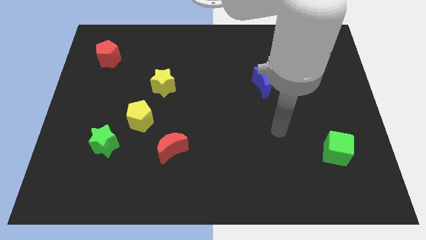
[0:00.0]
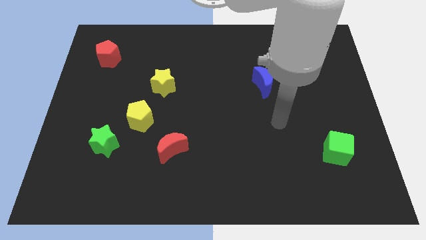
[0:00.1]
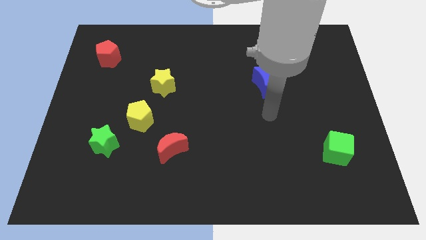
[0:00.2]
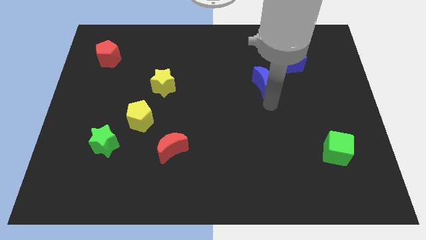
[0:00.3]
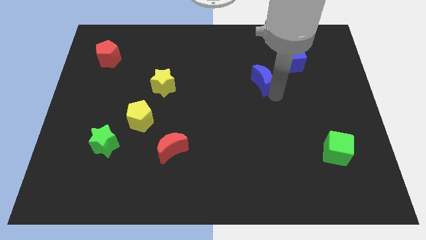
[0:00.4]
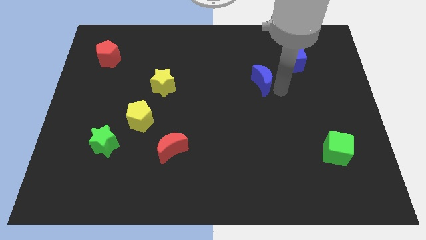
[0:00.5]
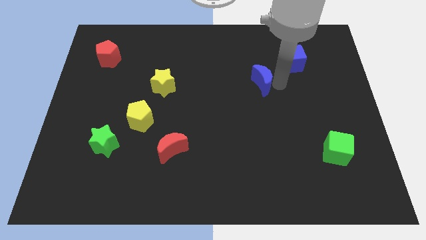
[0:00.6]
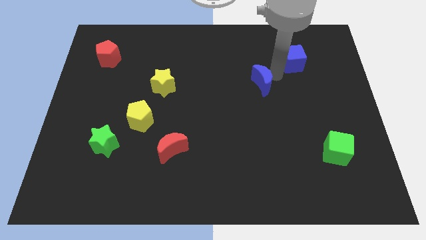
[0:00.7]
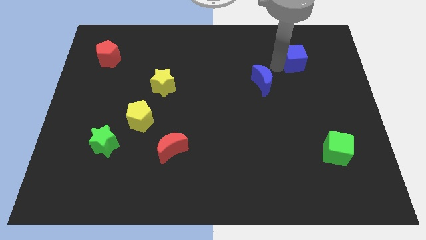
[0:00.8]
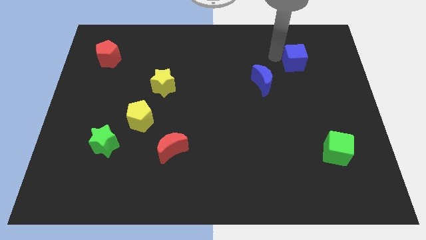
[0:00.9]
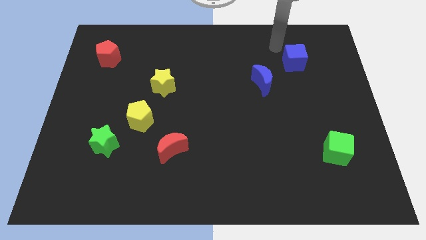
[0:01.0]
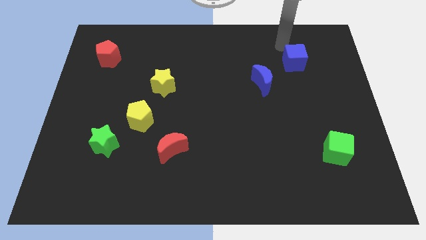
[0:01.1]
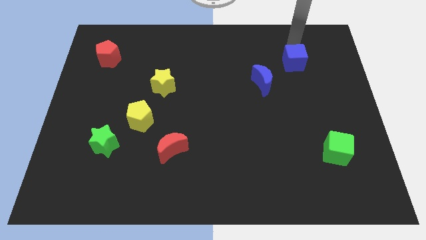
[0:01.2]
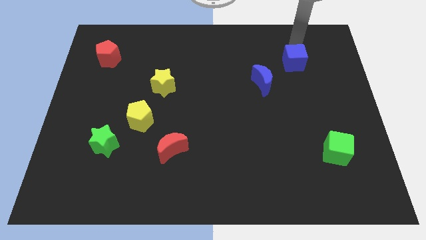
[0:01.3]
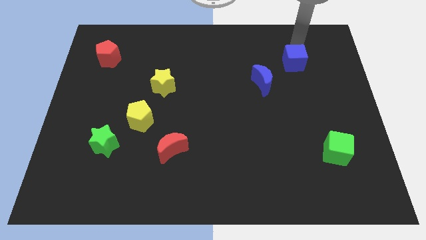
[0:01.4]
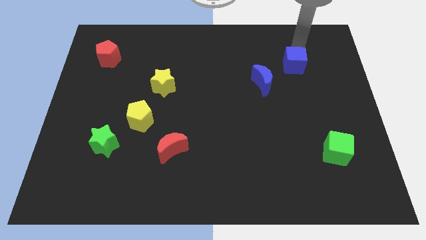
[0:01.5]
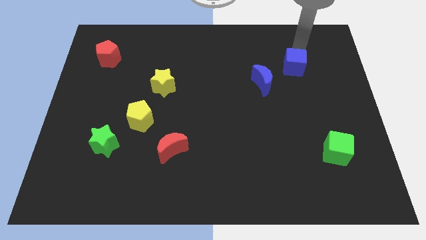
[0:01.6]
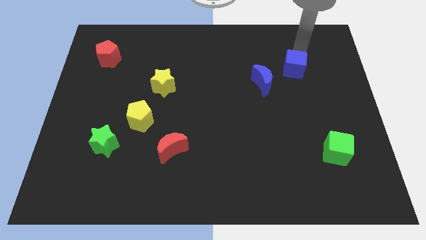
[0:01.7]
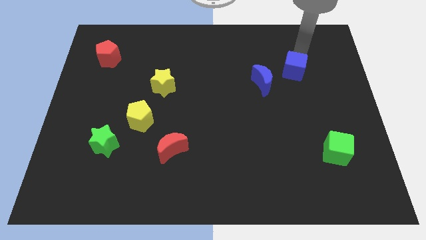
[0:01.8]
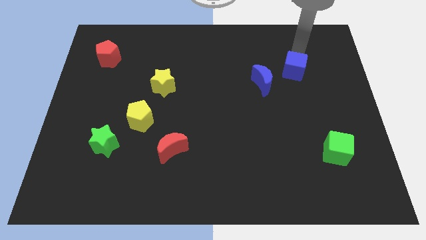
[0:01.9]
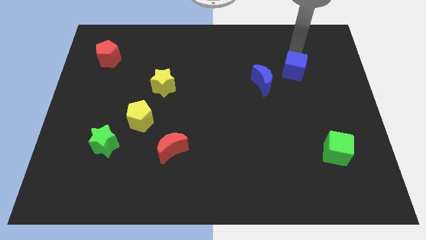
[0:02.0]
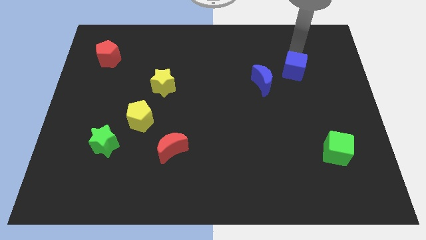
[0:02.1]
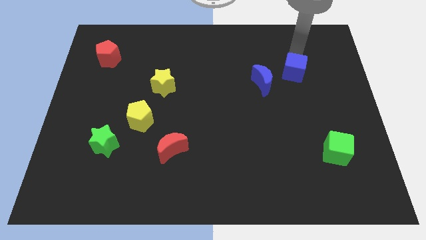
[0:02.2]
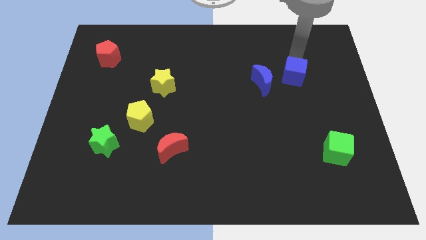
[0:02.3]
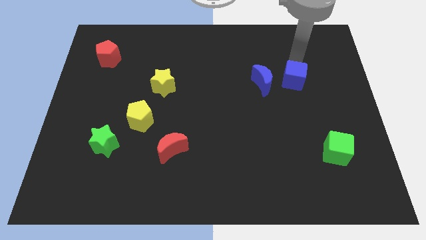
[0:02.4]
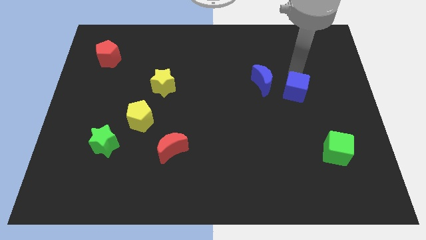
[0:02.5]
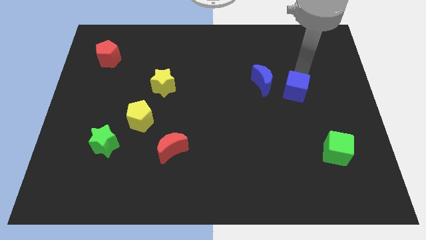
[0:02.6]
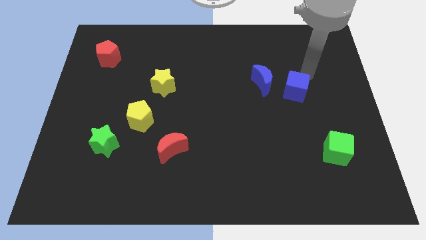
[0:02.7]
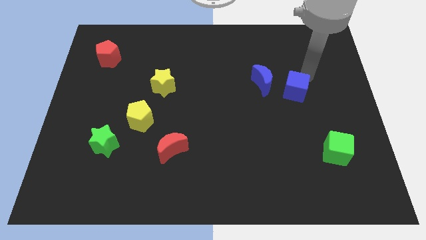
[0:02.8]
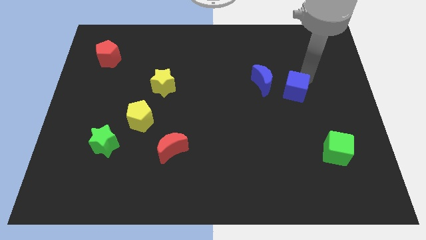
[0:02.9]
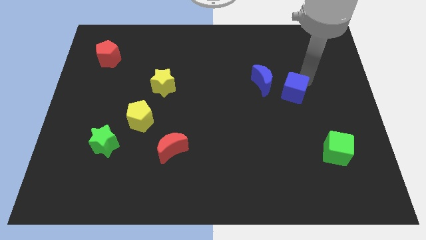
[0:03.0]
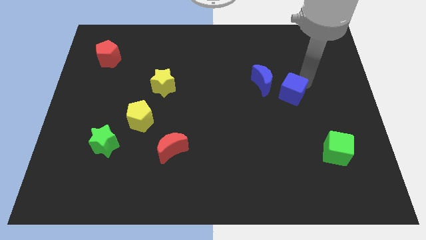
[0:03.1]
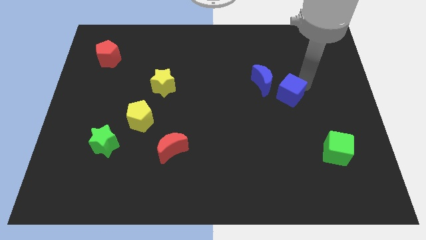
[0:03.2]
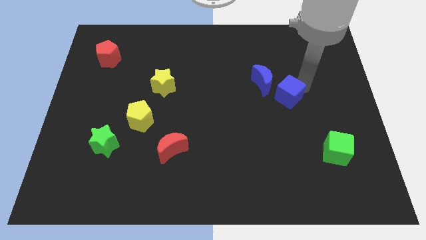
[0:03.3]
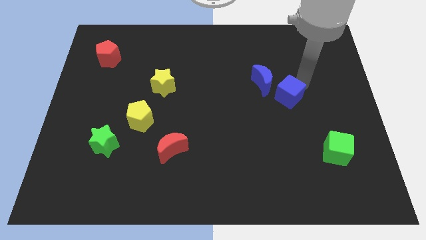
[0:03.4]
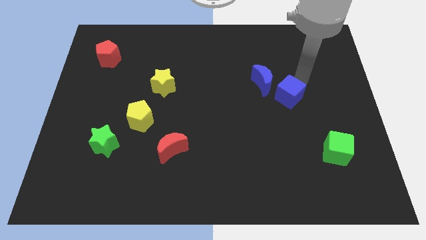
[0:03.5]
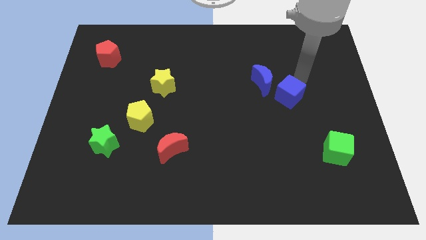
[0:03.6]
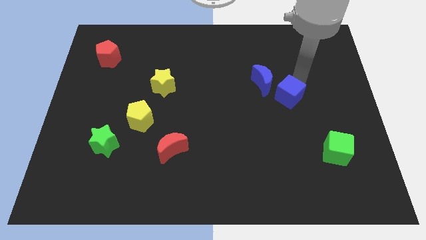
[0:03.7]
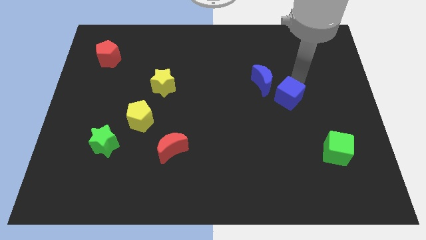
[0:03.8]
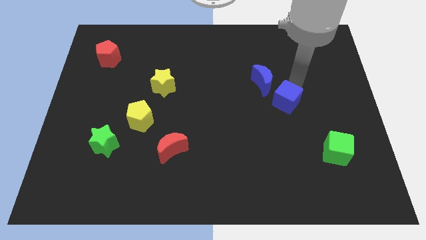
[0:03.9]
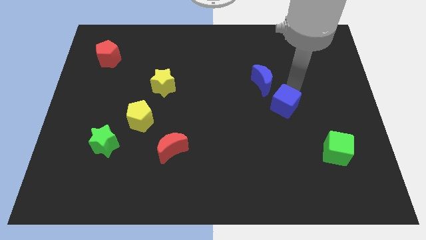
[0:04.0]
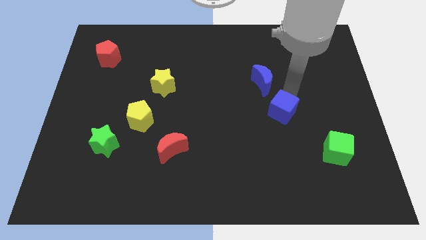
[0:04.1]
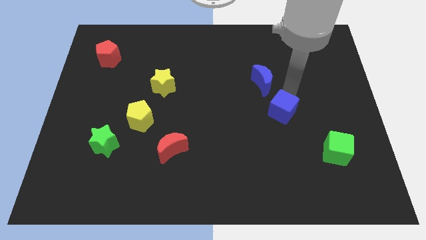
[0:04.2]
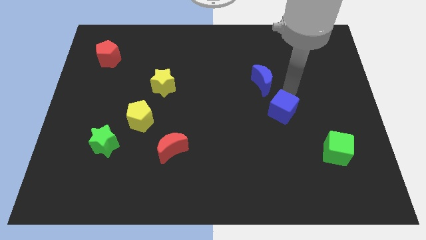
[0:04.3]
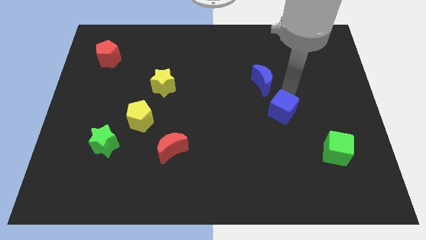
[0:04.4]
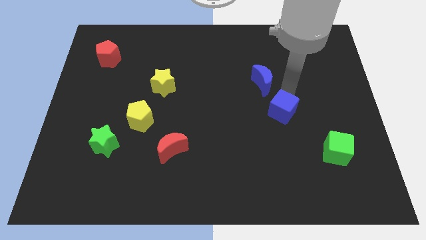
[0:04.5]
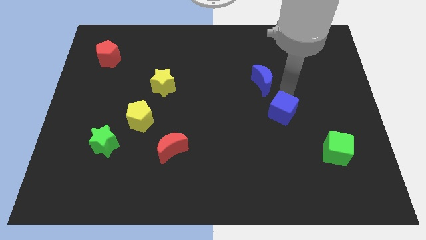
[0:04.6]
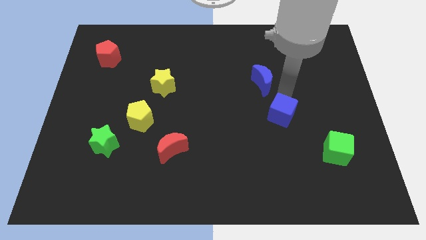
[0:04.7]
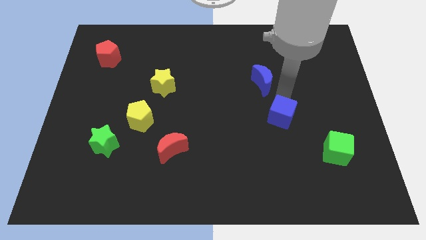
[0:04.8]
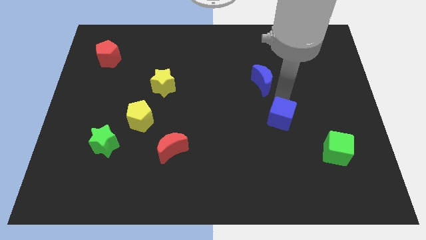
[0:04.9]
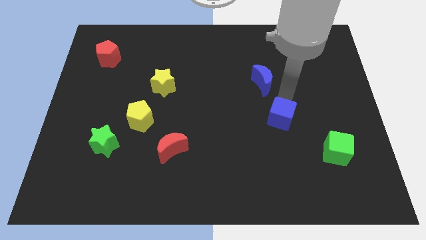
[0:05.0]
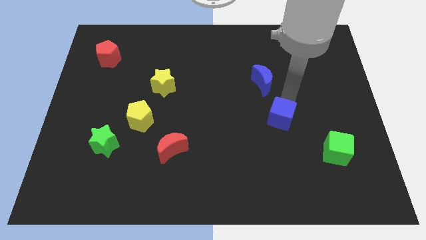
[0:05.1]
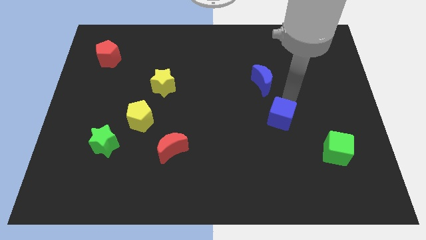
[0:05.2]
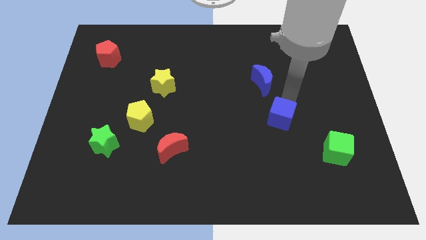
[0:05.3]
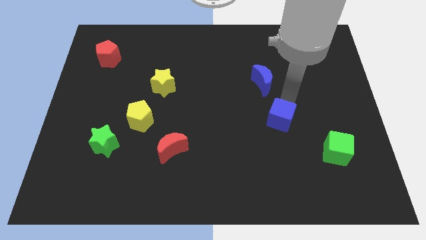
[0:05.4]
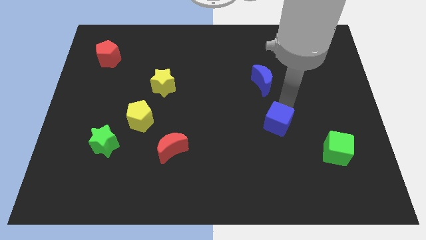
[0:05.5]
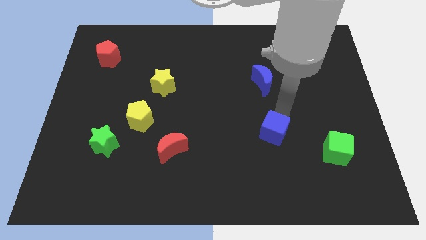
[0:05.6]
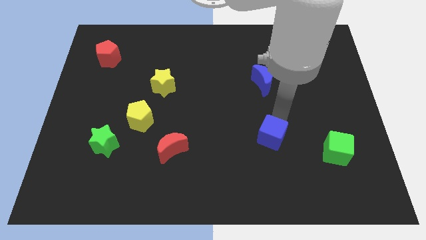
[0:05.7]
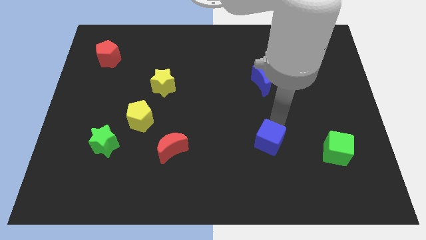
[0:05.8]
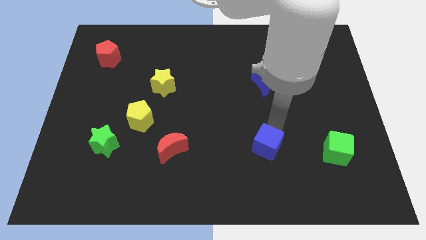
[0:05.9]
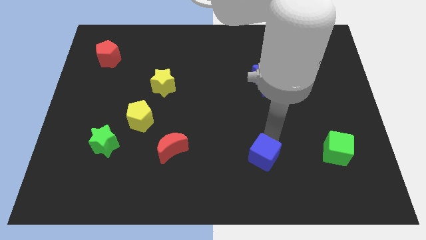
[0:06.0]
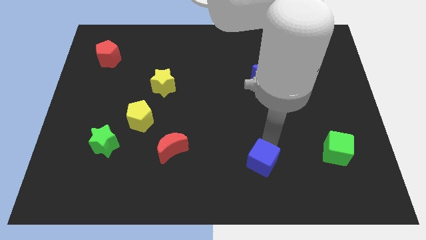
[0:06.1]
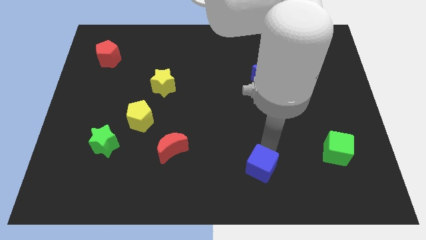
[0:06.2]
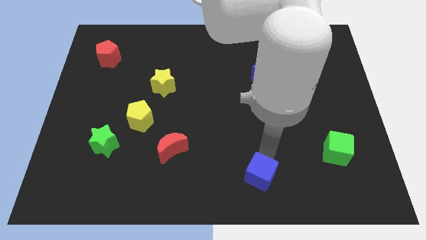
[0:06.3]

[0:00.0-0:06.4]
move the blue cube to the bottom

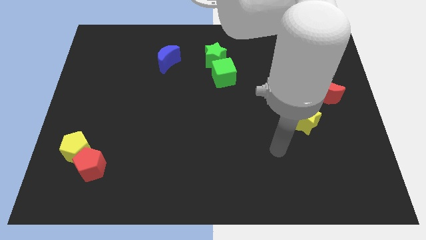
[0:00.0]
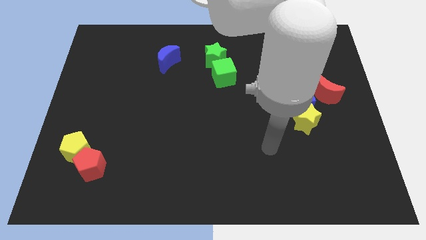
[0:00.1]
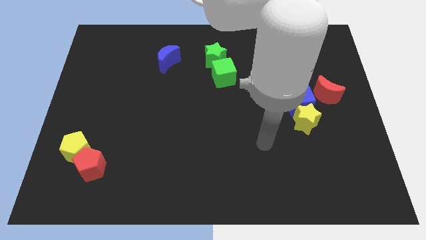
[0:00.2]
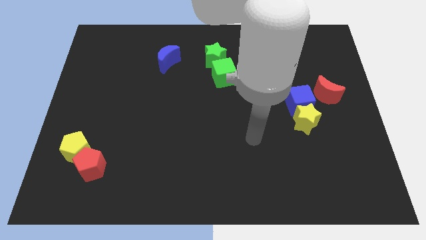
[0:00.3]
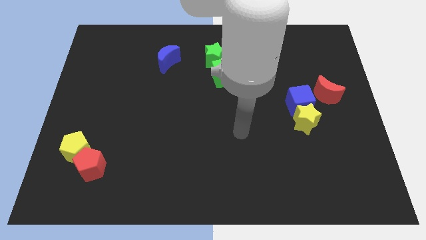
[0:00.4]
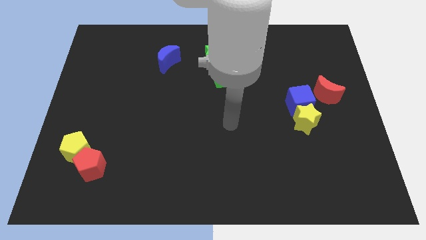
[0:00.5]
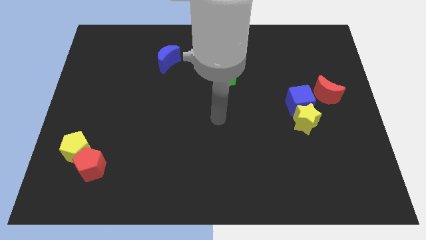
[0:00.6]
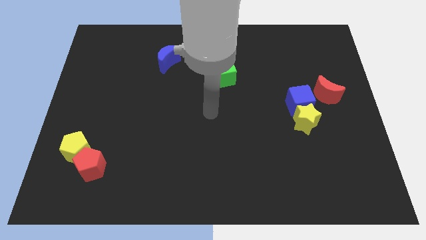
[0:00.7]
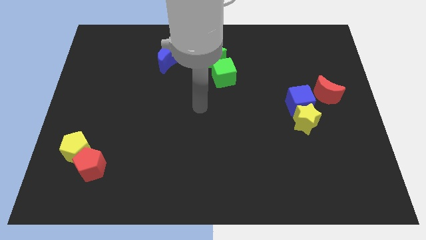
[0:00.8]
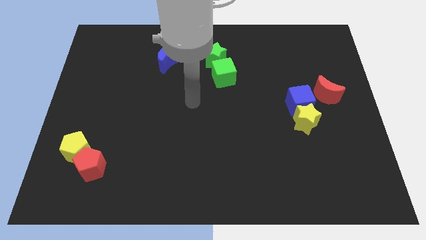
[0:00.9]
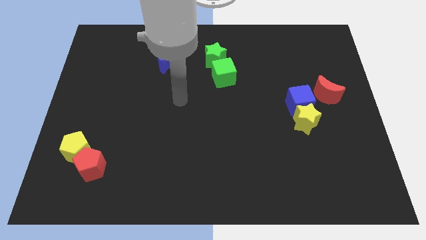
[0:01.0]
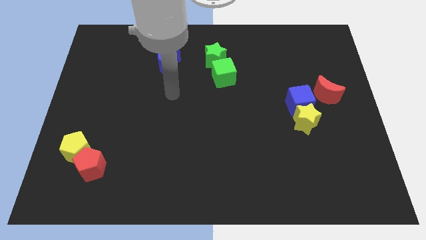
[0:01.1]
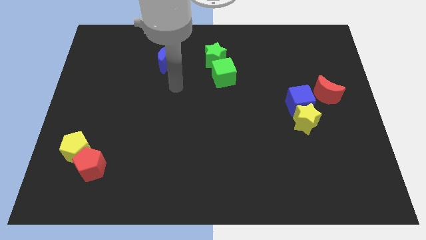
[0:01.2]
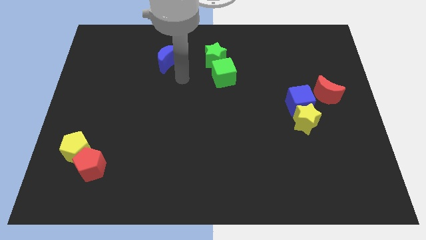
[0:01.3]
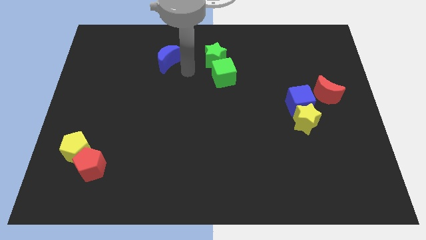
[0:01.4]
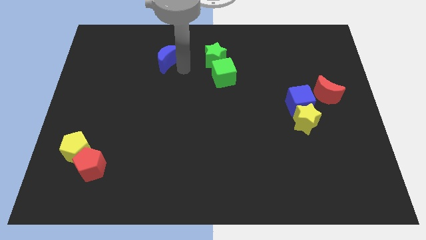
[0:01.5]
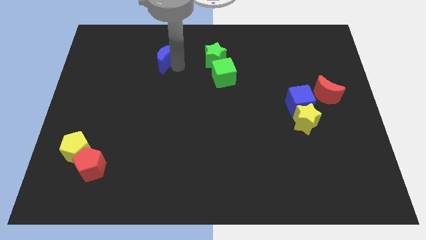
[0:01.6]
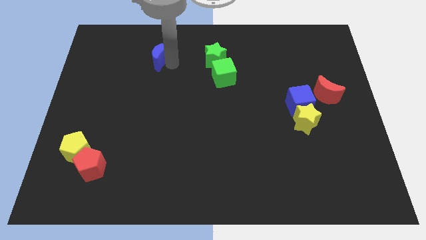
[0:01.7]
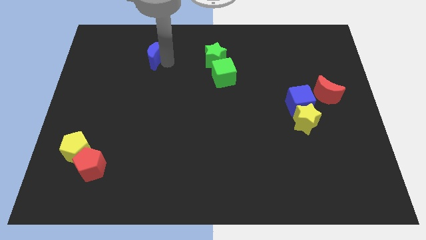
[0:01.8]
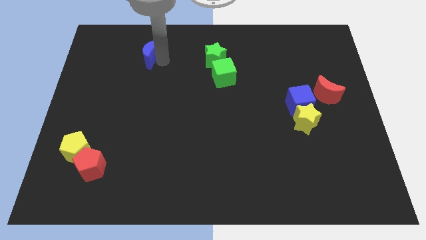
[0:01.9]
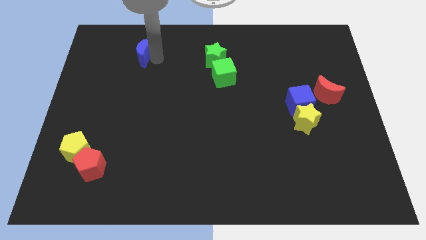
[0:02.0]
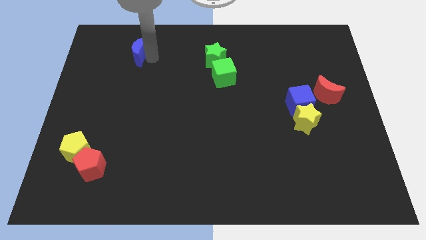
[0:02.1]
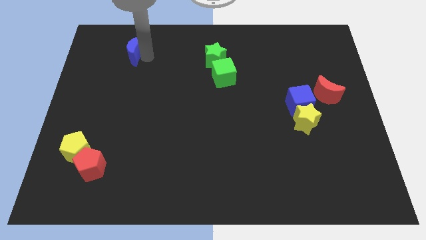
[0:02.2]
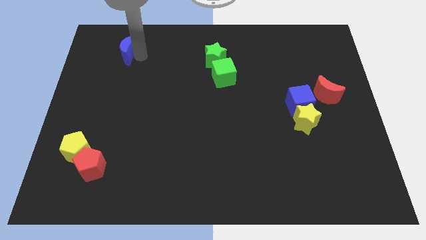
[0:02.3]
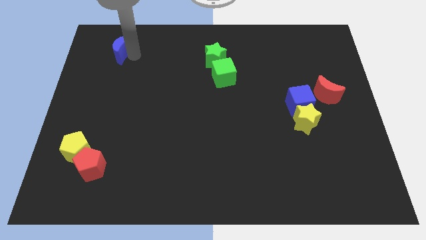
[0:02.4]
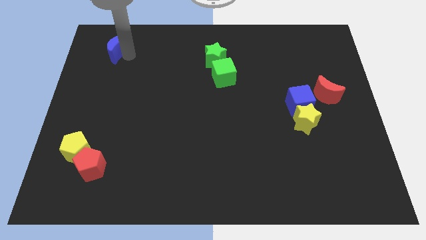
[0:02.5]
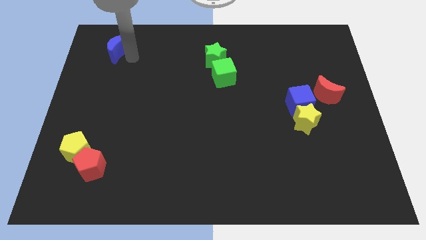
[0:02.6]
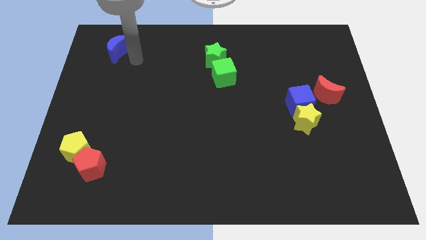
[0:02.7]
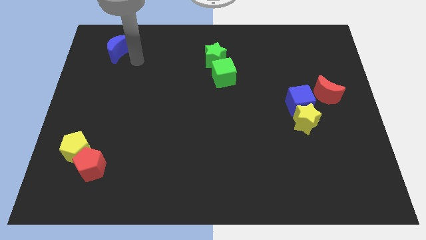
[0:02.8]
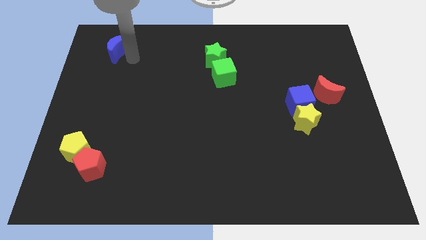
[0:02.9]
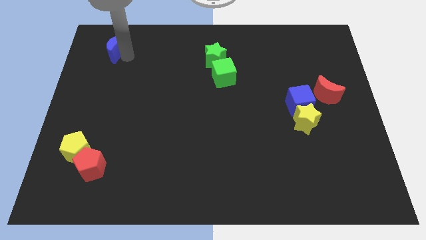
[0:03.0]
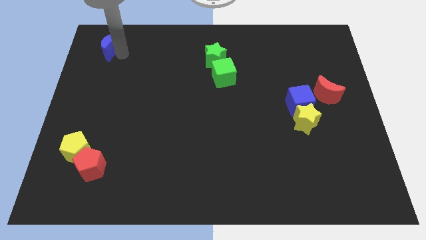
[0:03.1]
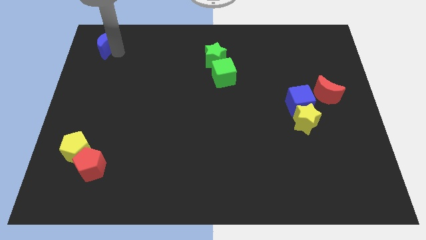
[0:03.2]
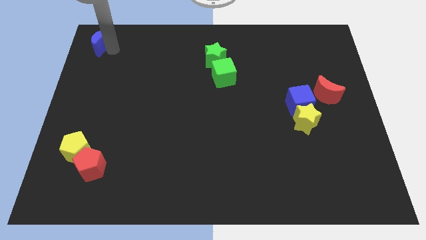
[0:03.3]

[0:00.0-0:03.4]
slide the blue moon to the top left of the board
